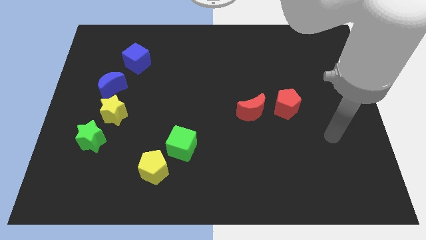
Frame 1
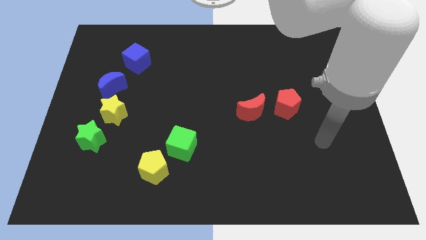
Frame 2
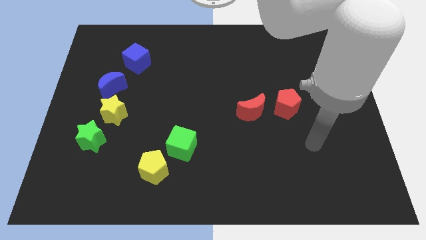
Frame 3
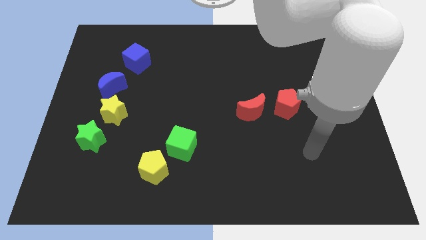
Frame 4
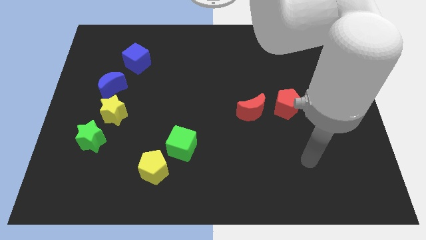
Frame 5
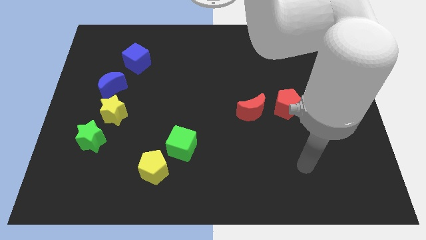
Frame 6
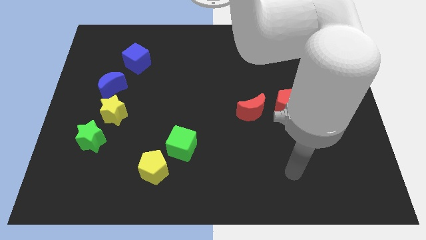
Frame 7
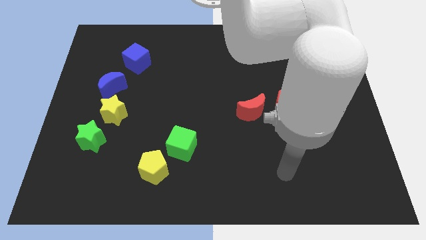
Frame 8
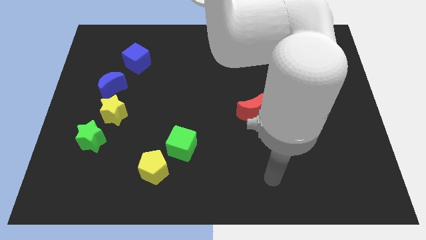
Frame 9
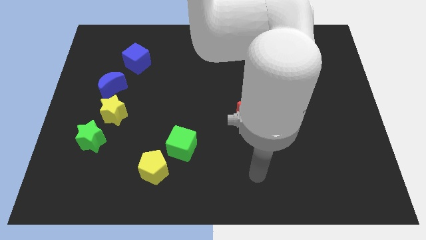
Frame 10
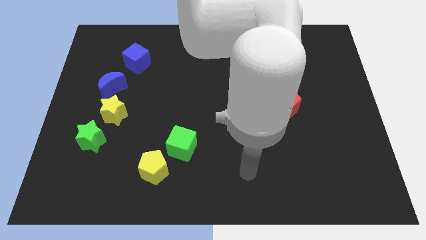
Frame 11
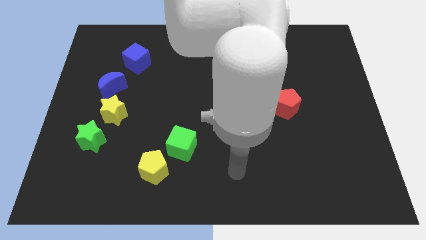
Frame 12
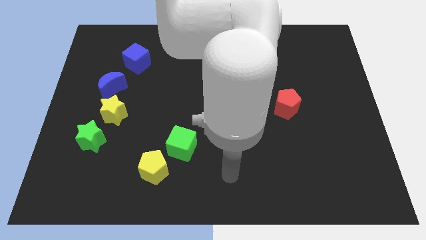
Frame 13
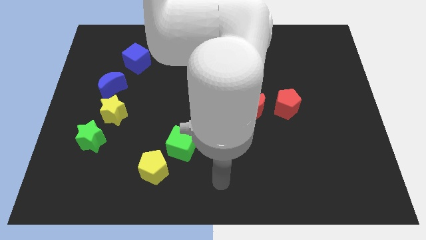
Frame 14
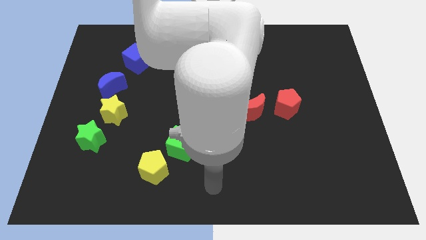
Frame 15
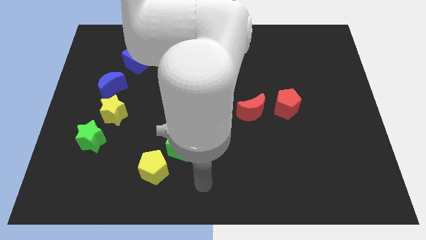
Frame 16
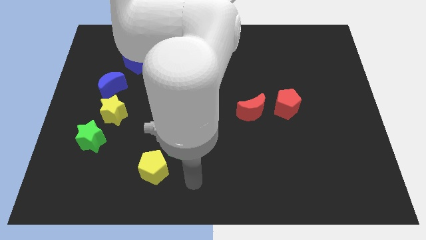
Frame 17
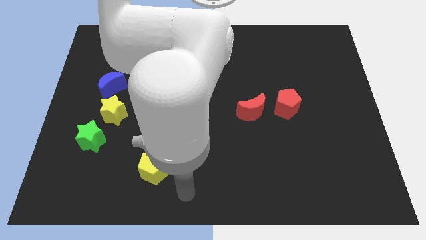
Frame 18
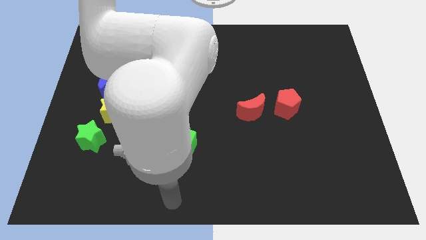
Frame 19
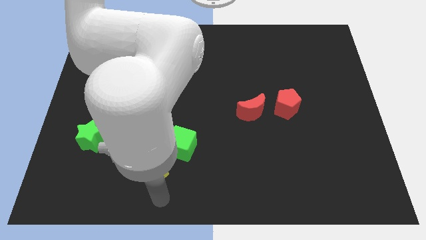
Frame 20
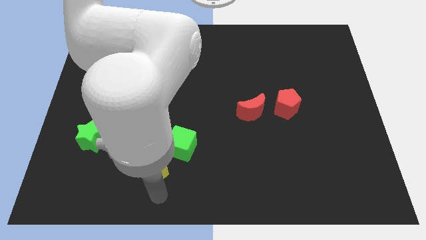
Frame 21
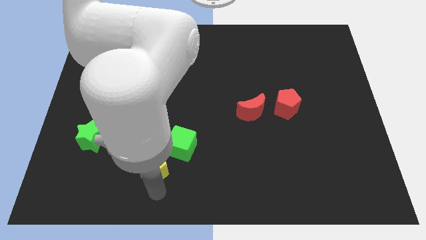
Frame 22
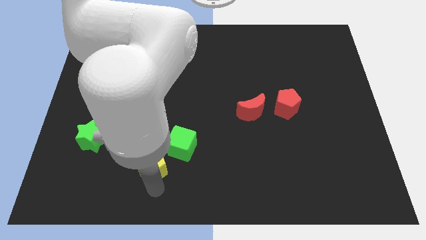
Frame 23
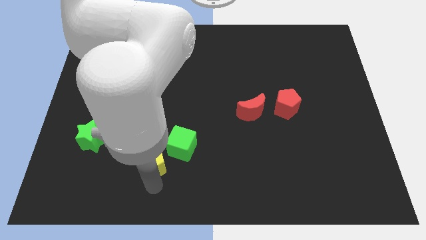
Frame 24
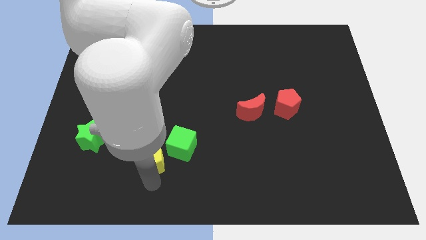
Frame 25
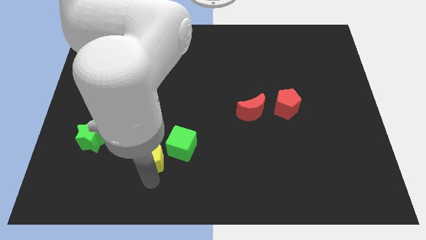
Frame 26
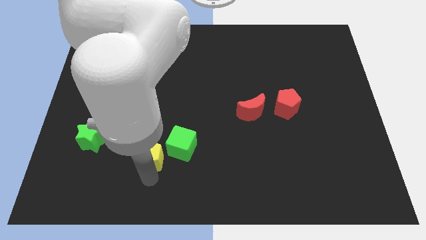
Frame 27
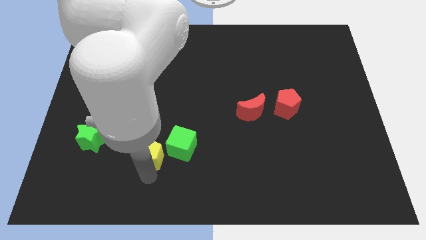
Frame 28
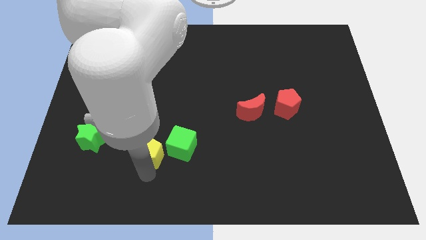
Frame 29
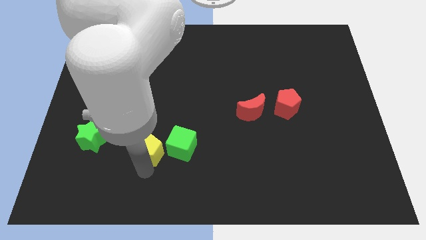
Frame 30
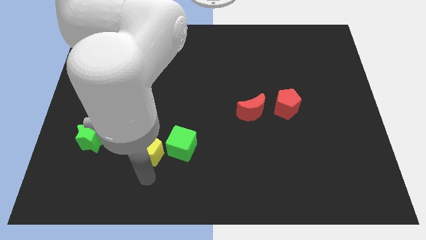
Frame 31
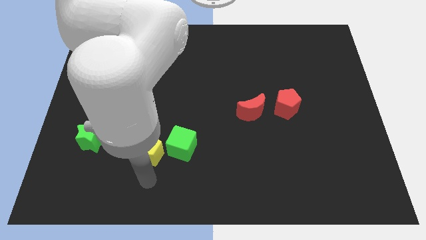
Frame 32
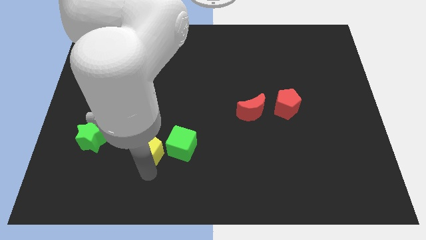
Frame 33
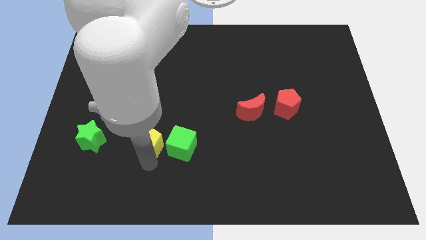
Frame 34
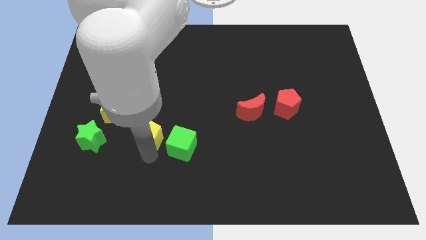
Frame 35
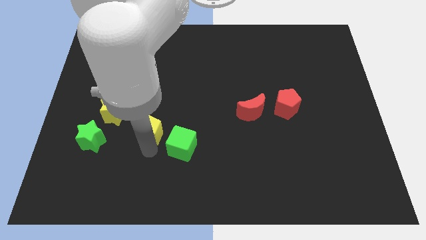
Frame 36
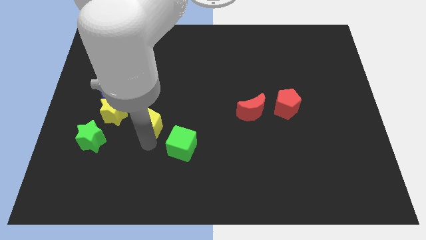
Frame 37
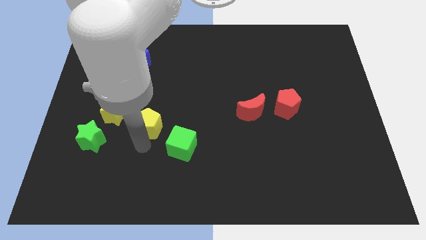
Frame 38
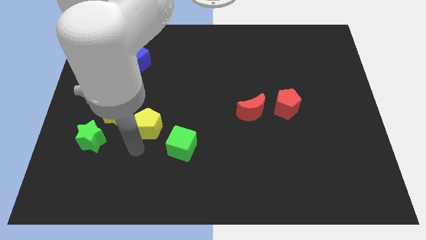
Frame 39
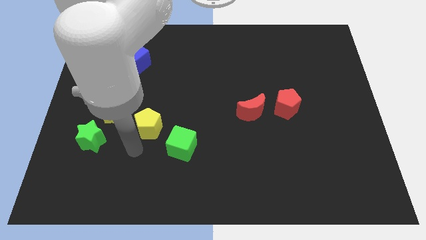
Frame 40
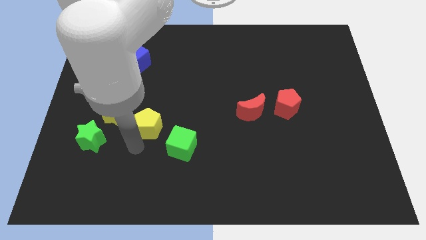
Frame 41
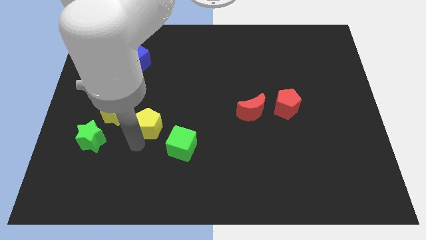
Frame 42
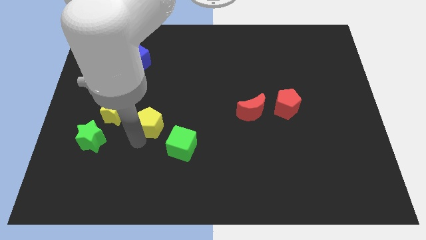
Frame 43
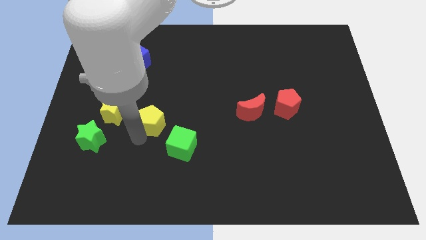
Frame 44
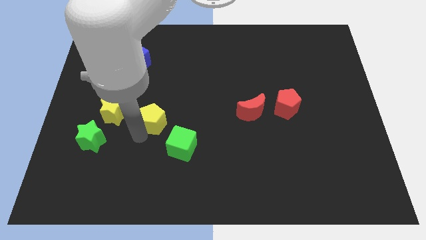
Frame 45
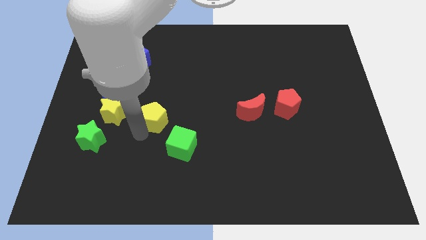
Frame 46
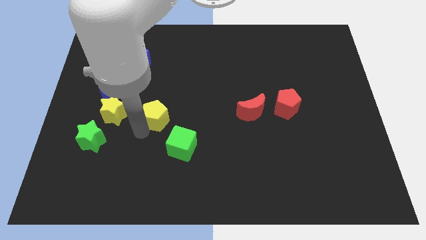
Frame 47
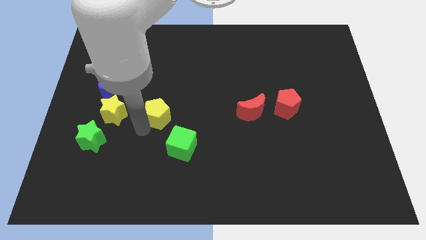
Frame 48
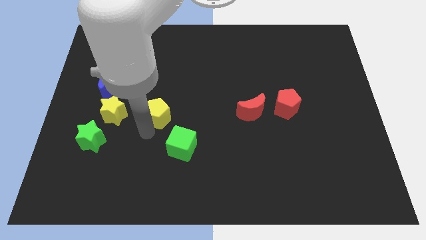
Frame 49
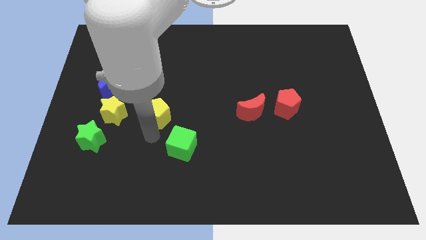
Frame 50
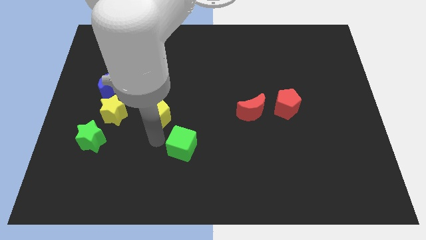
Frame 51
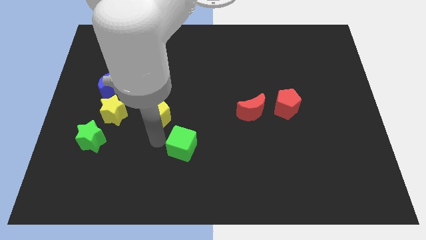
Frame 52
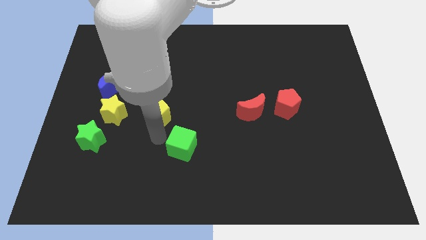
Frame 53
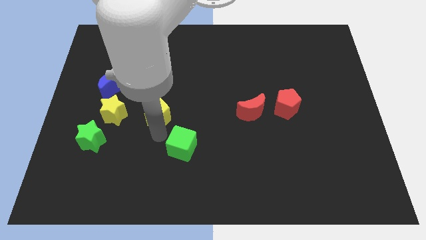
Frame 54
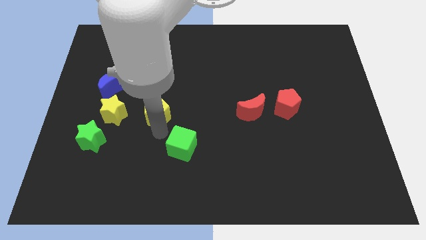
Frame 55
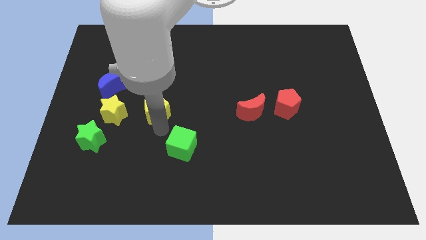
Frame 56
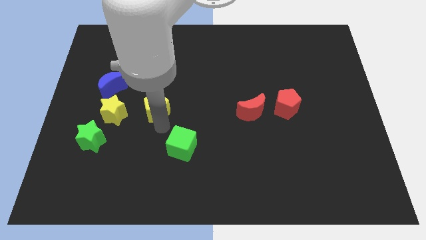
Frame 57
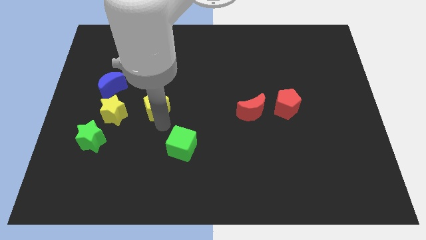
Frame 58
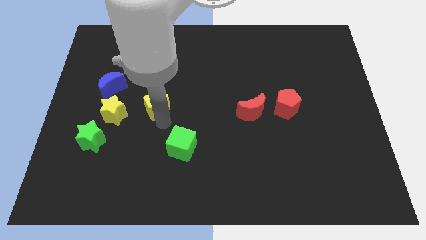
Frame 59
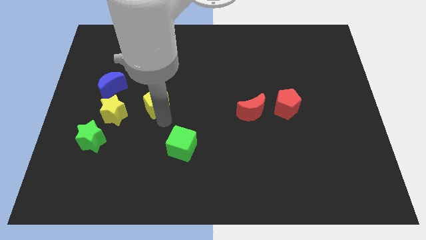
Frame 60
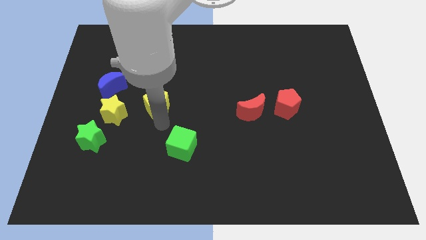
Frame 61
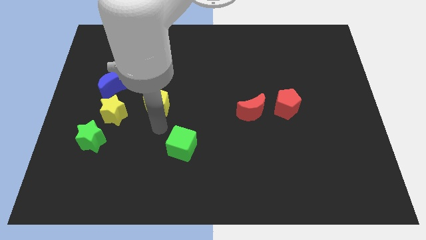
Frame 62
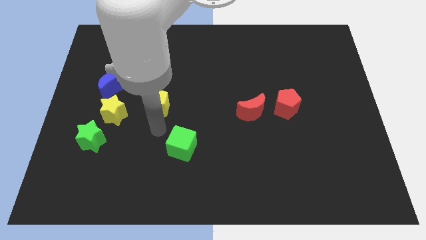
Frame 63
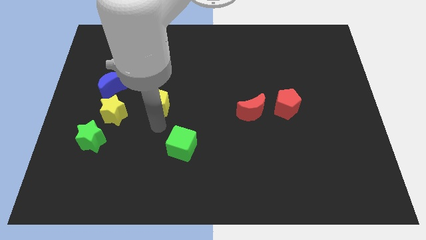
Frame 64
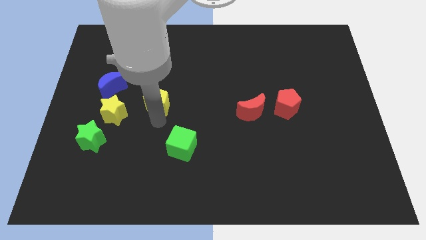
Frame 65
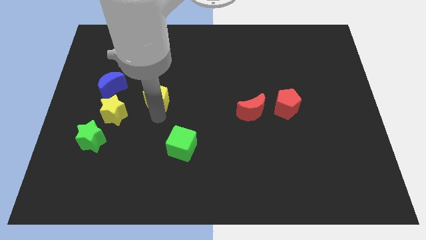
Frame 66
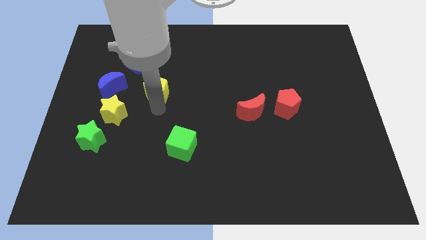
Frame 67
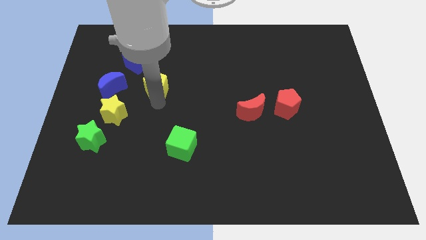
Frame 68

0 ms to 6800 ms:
move the yellow pentagon to the bottom right side of the blue cube

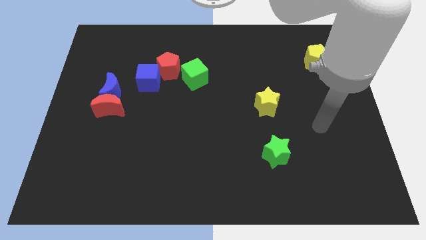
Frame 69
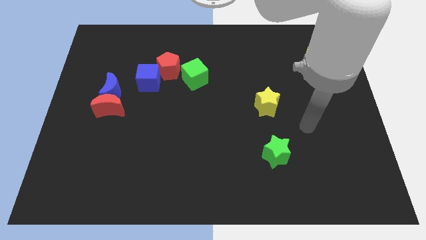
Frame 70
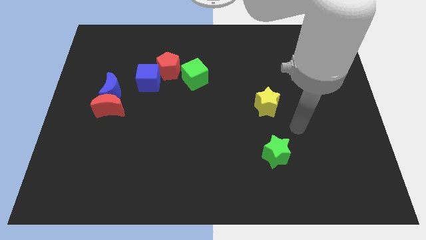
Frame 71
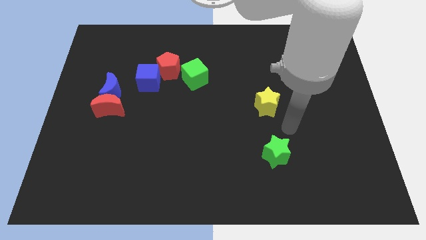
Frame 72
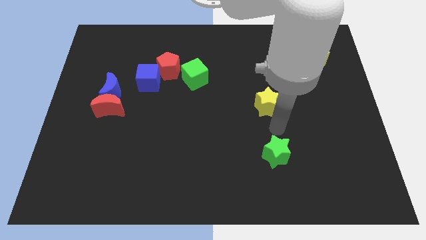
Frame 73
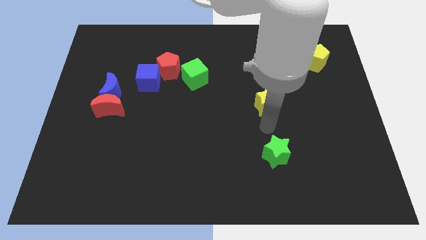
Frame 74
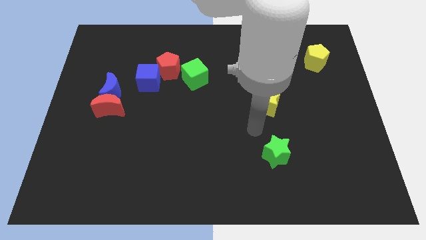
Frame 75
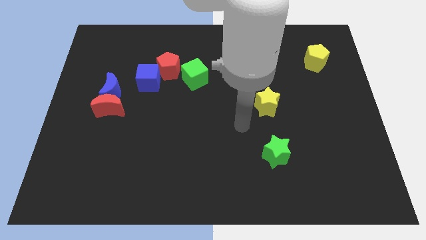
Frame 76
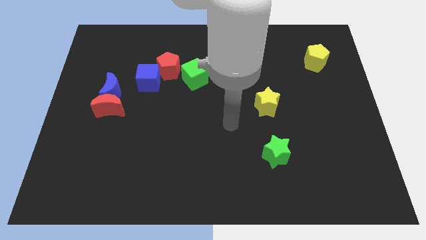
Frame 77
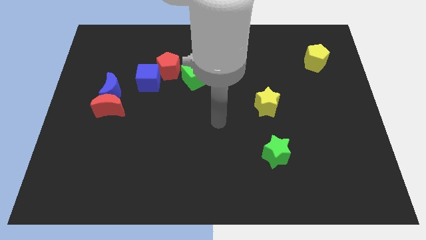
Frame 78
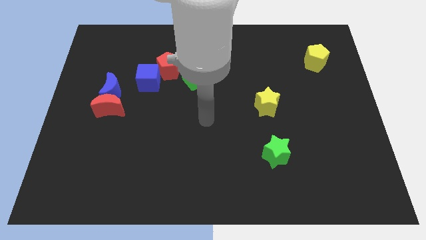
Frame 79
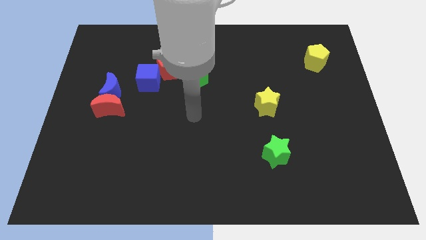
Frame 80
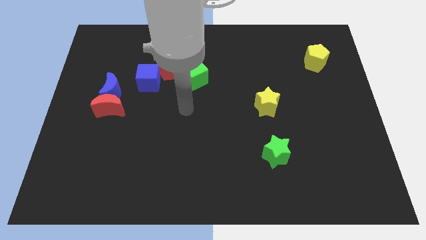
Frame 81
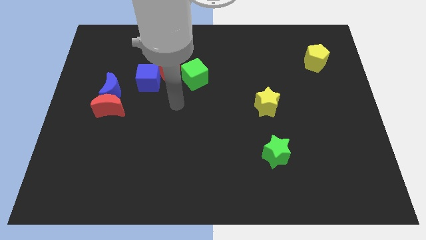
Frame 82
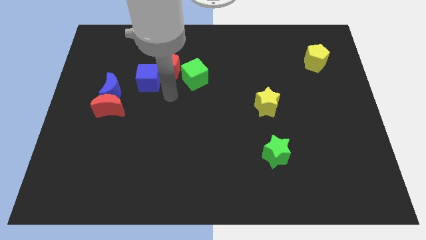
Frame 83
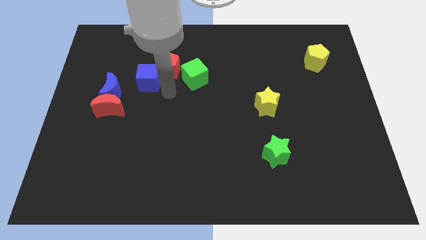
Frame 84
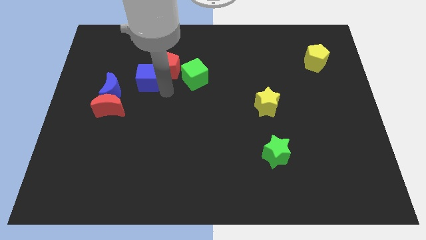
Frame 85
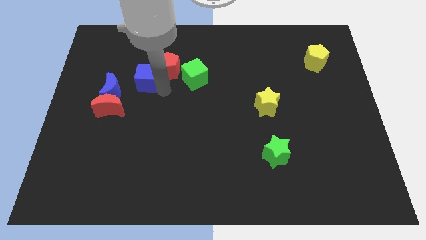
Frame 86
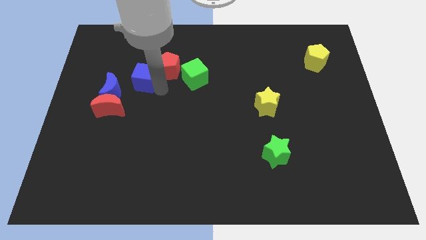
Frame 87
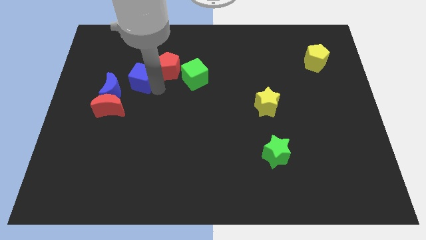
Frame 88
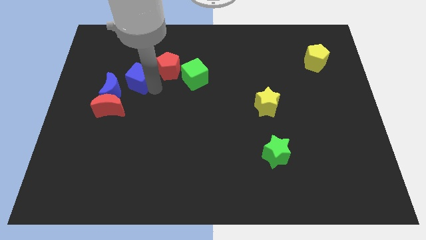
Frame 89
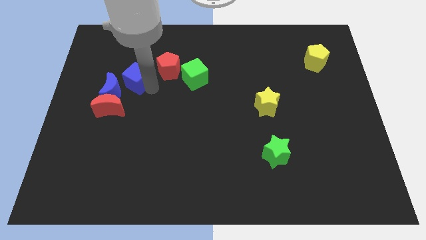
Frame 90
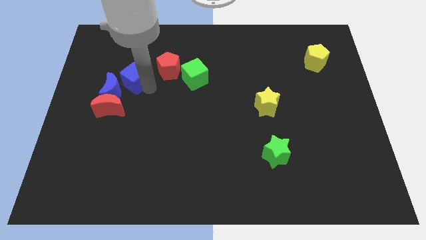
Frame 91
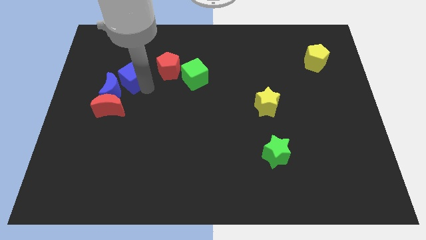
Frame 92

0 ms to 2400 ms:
put the blue cube above the blue moon
